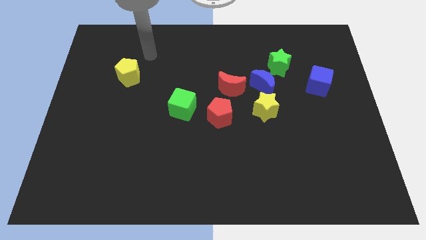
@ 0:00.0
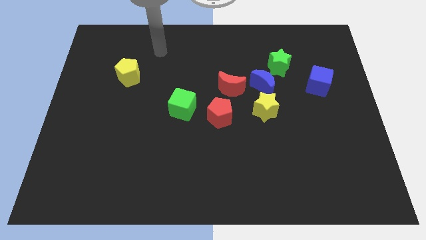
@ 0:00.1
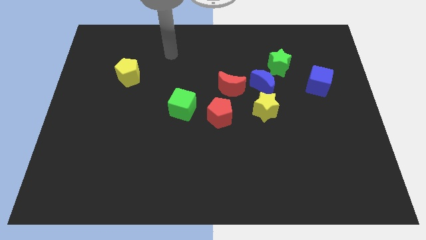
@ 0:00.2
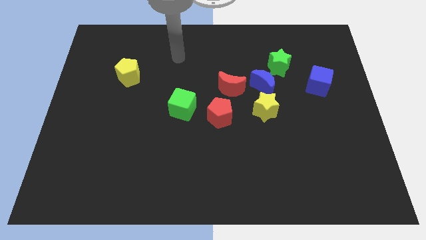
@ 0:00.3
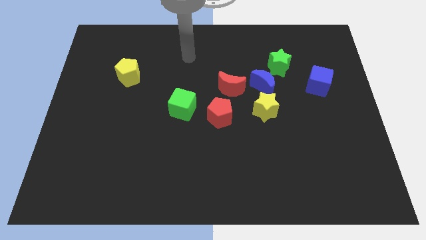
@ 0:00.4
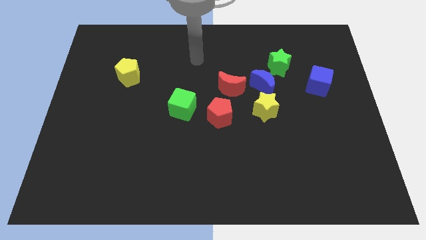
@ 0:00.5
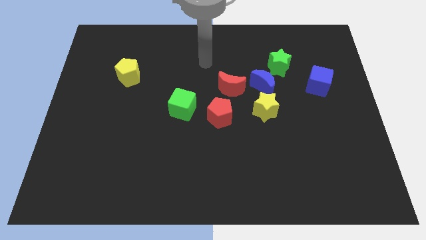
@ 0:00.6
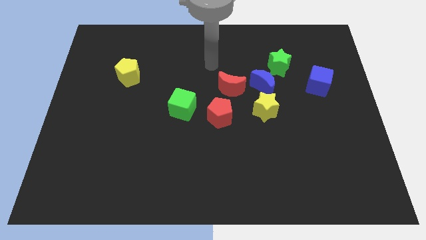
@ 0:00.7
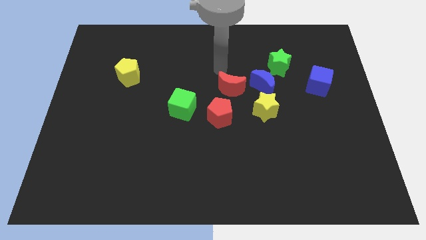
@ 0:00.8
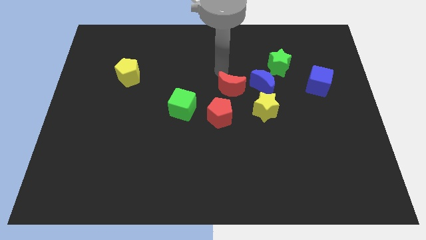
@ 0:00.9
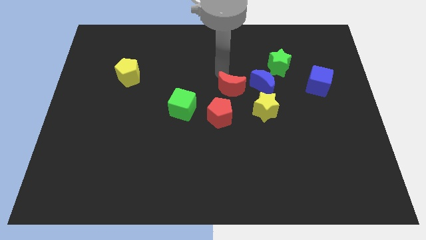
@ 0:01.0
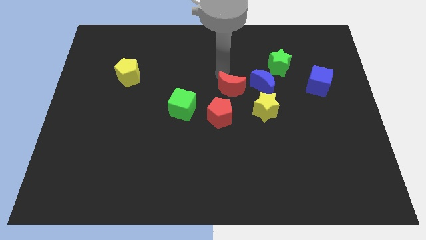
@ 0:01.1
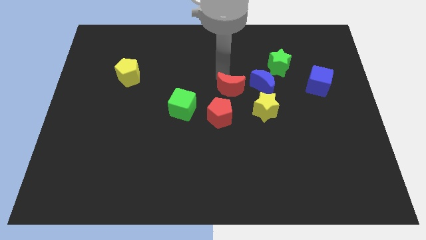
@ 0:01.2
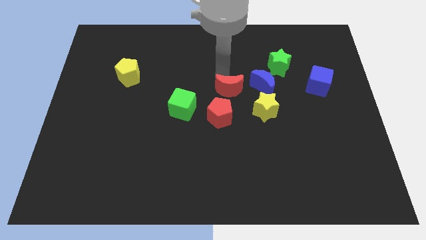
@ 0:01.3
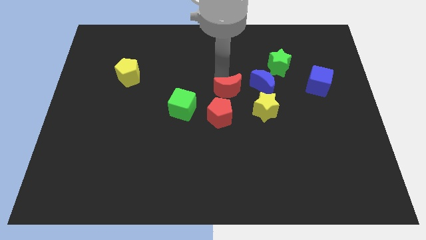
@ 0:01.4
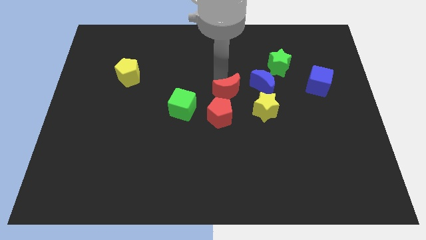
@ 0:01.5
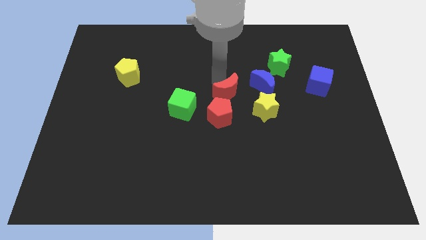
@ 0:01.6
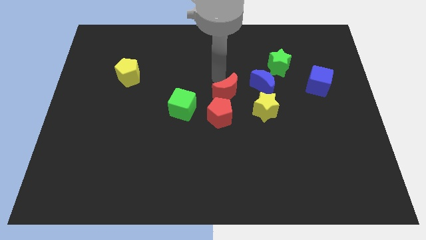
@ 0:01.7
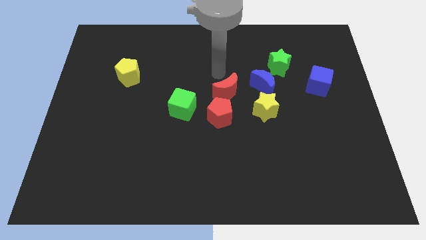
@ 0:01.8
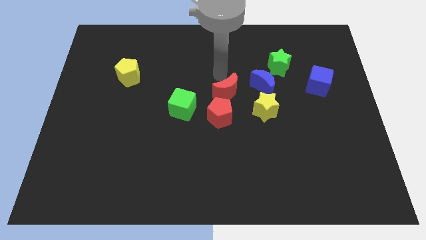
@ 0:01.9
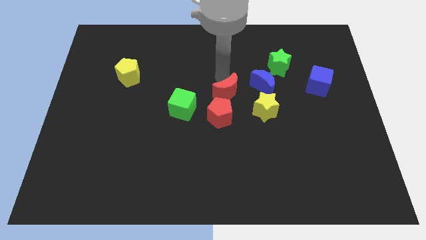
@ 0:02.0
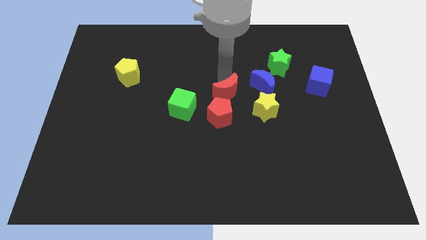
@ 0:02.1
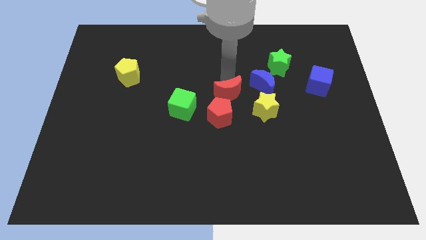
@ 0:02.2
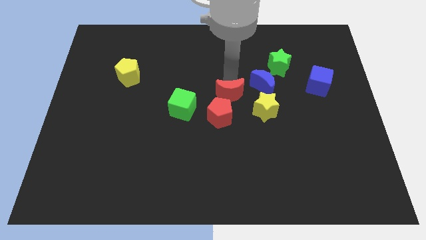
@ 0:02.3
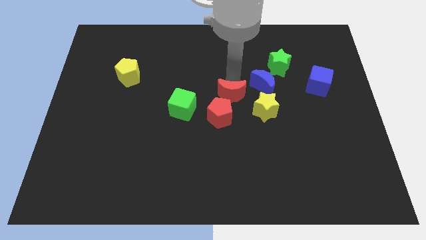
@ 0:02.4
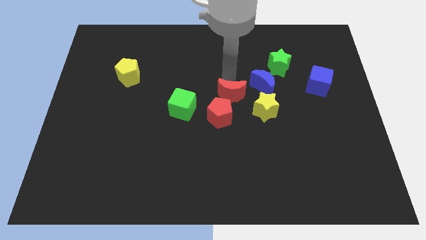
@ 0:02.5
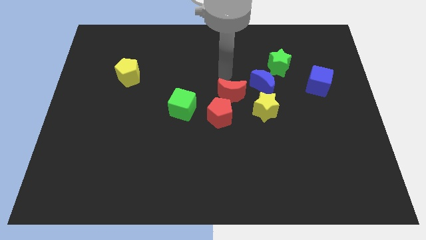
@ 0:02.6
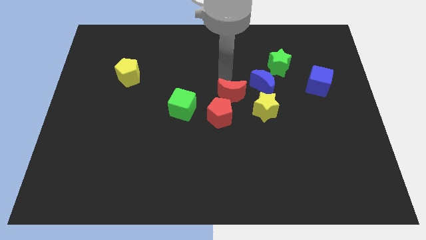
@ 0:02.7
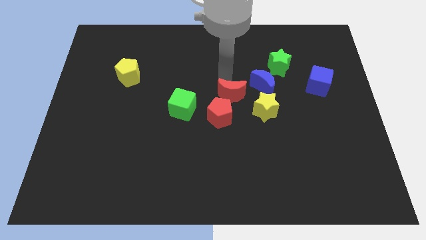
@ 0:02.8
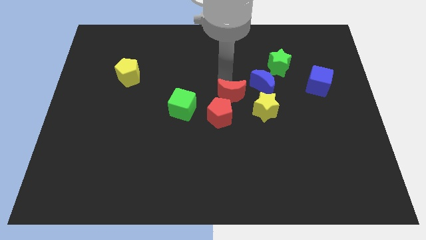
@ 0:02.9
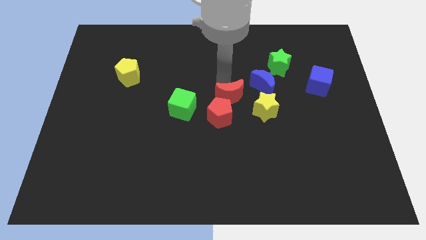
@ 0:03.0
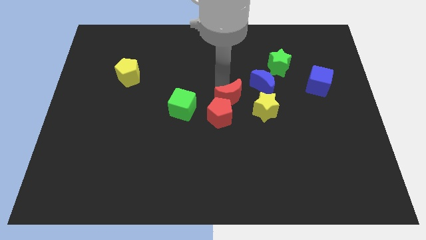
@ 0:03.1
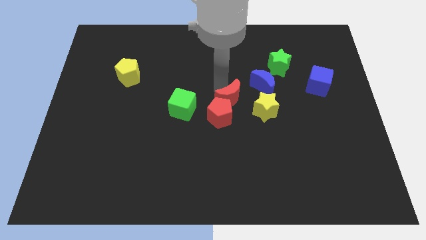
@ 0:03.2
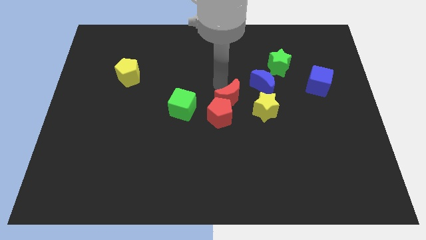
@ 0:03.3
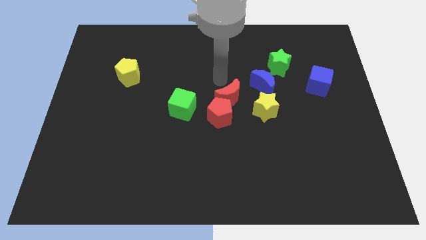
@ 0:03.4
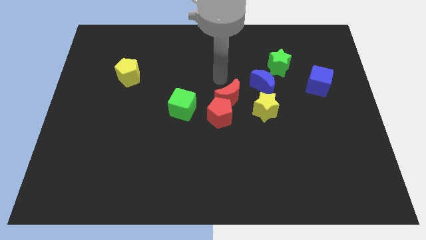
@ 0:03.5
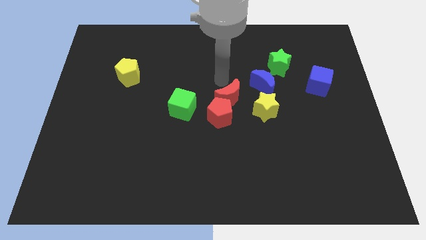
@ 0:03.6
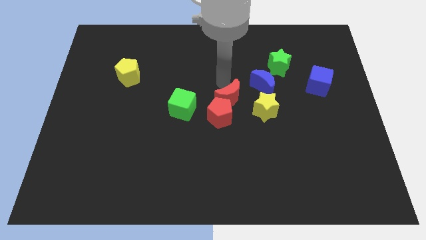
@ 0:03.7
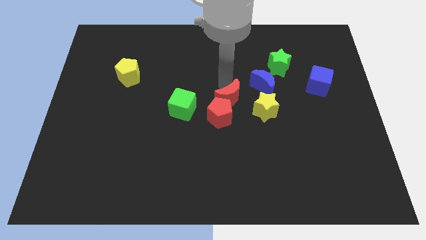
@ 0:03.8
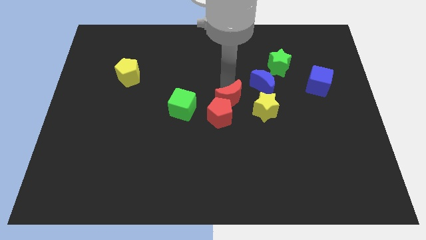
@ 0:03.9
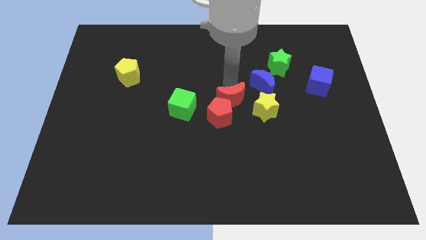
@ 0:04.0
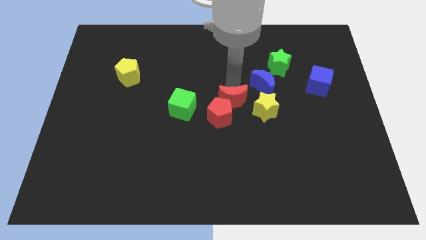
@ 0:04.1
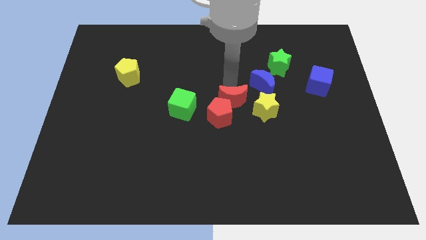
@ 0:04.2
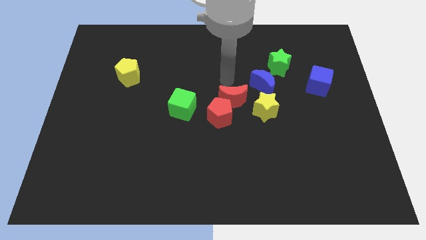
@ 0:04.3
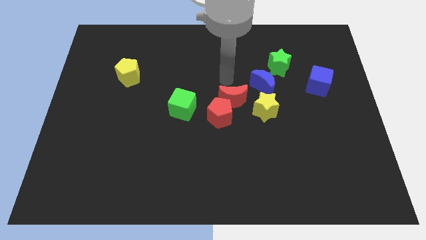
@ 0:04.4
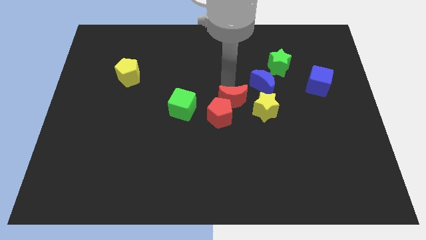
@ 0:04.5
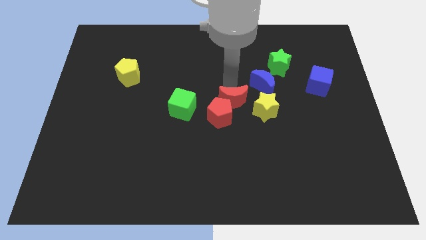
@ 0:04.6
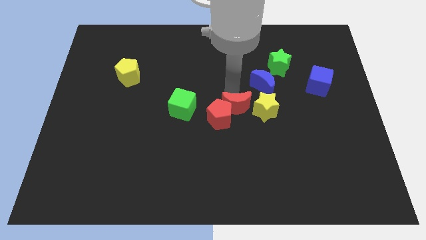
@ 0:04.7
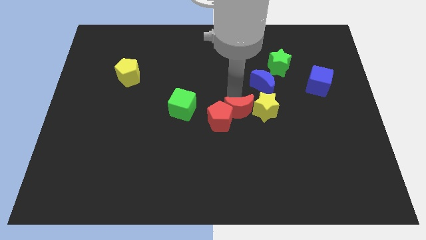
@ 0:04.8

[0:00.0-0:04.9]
slide the red moon a little bit down

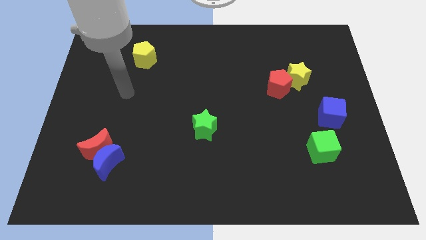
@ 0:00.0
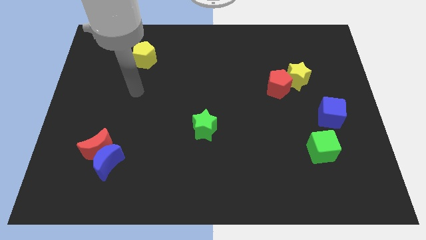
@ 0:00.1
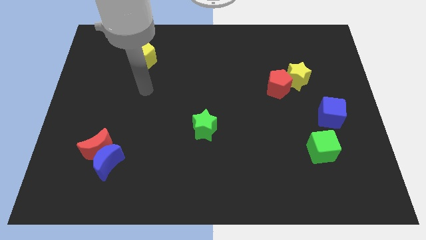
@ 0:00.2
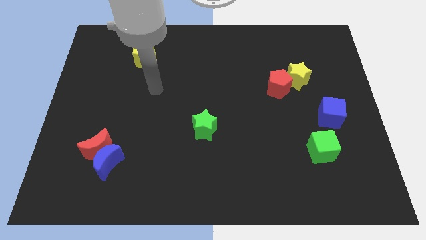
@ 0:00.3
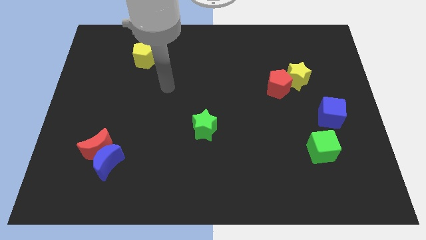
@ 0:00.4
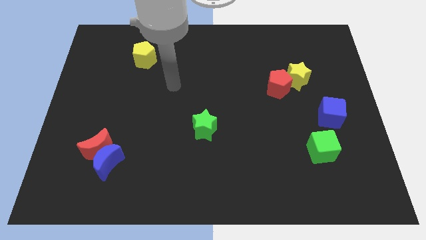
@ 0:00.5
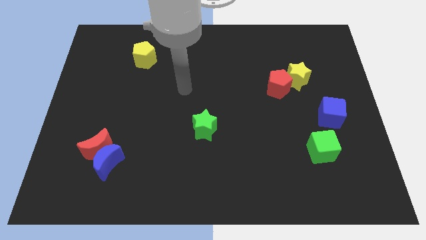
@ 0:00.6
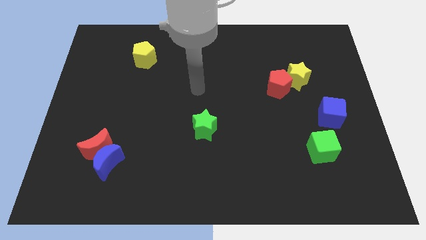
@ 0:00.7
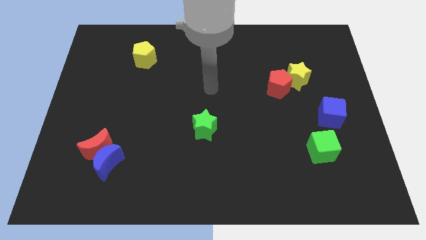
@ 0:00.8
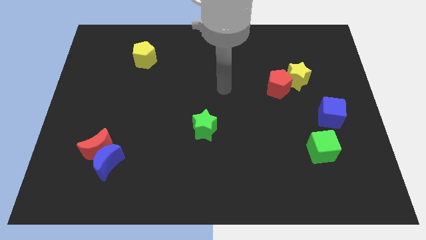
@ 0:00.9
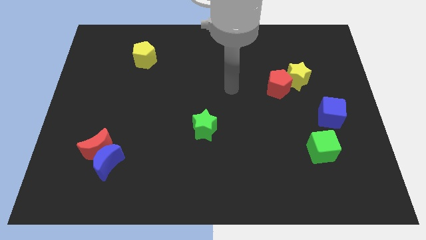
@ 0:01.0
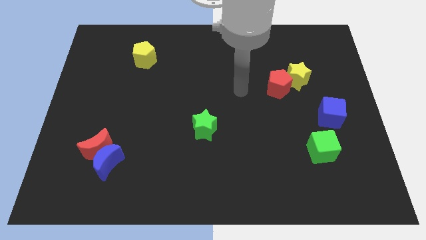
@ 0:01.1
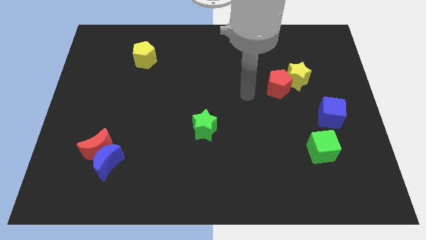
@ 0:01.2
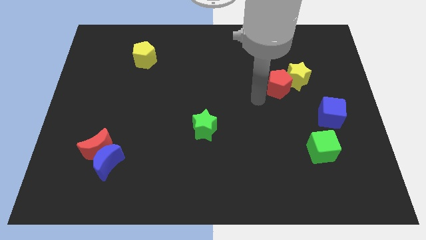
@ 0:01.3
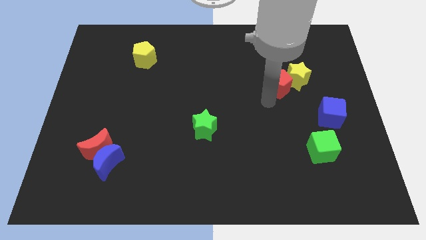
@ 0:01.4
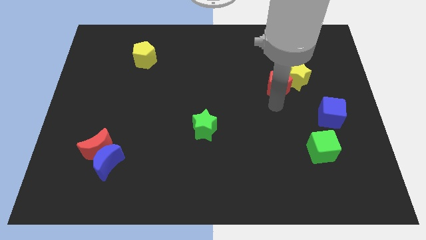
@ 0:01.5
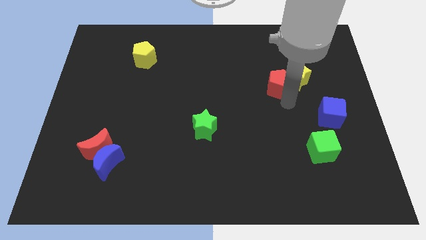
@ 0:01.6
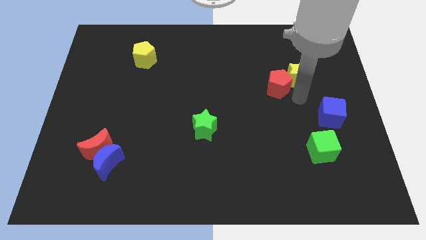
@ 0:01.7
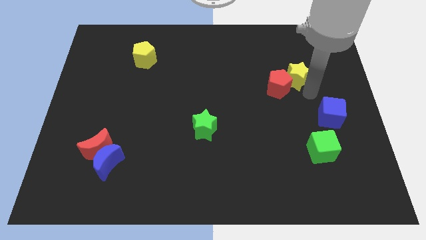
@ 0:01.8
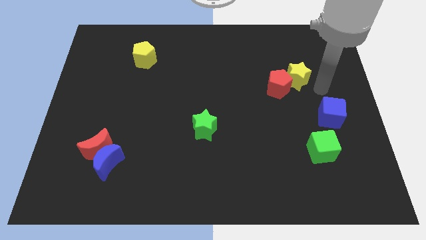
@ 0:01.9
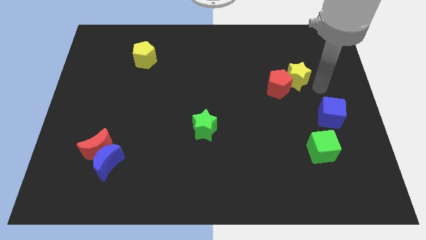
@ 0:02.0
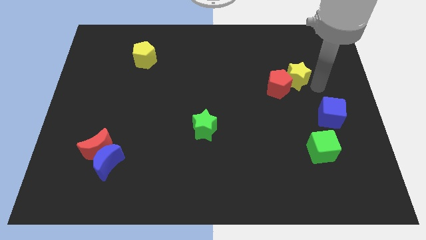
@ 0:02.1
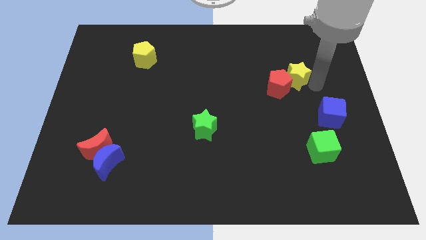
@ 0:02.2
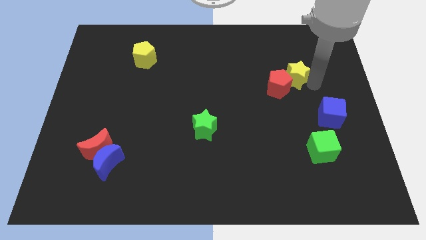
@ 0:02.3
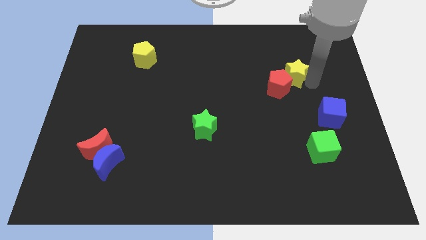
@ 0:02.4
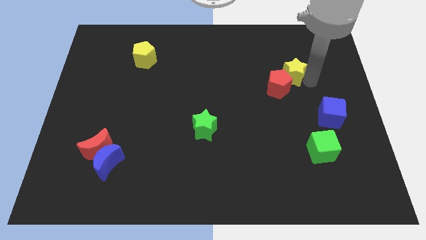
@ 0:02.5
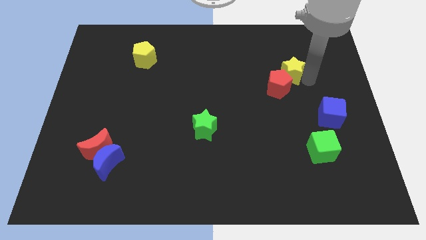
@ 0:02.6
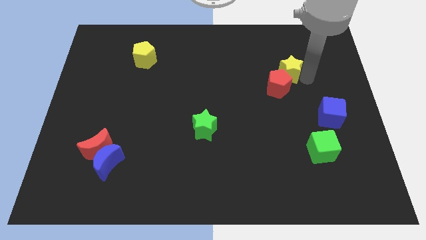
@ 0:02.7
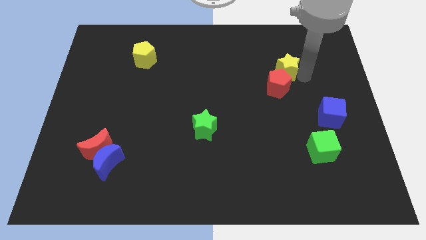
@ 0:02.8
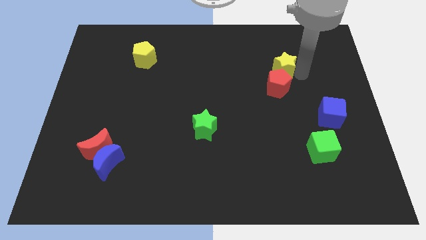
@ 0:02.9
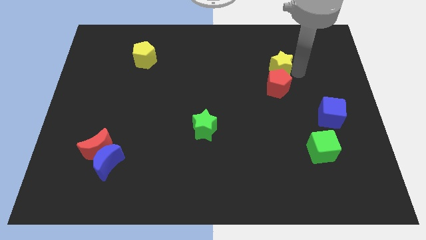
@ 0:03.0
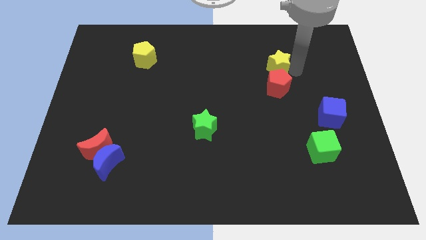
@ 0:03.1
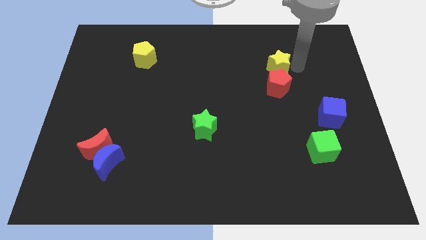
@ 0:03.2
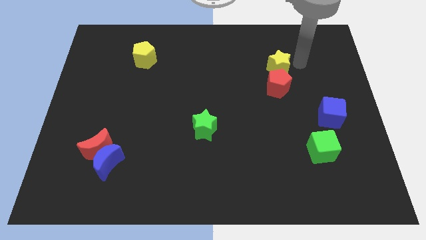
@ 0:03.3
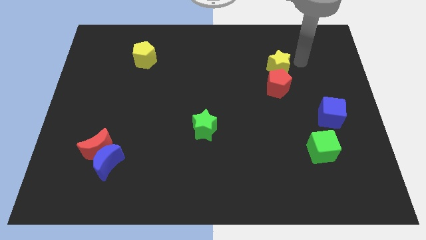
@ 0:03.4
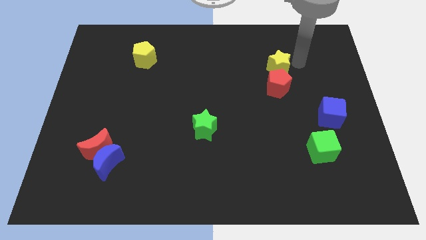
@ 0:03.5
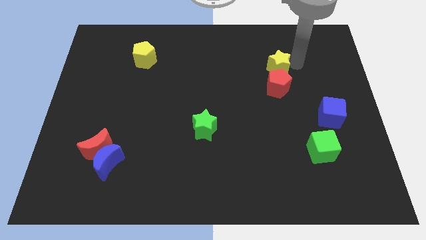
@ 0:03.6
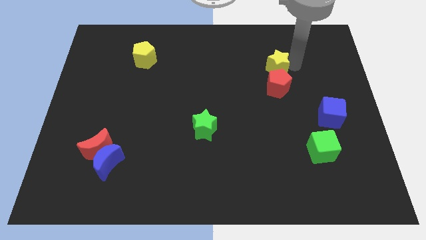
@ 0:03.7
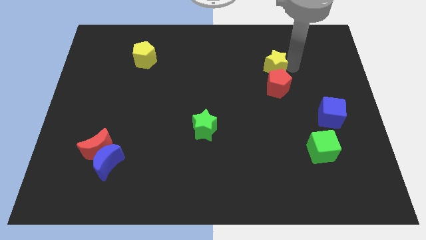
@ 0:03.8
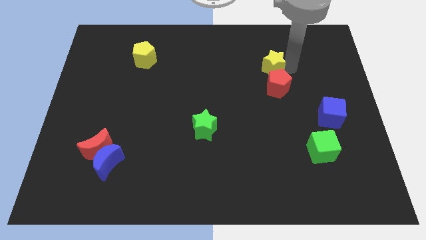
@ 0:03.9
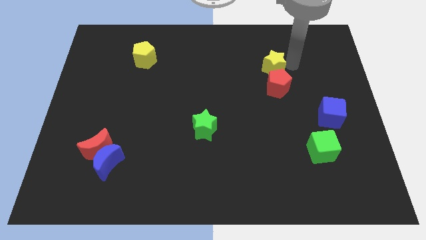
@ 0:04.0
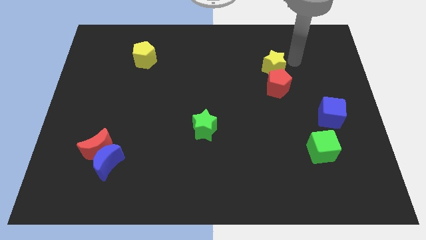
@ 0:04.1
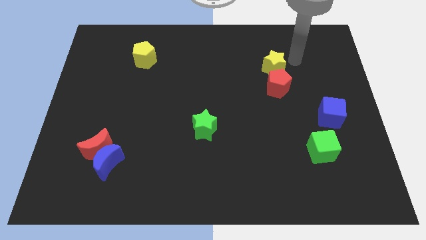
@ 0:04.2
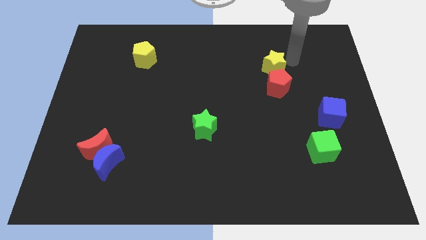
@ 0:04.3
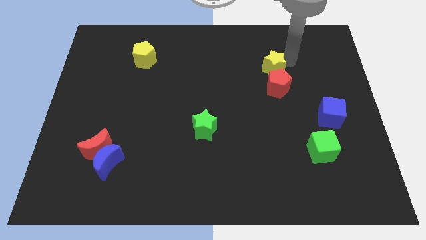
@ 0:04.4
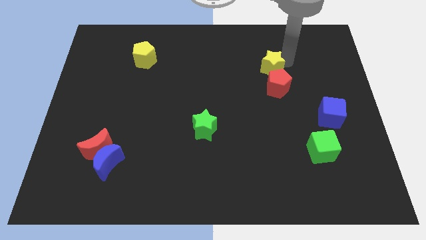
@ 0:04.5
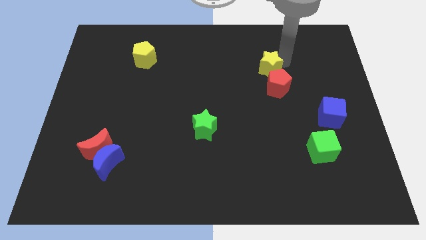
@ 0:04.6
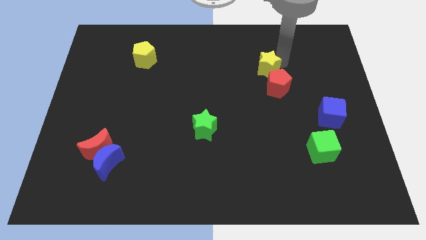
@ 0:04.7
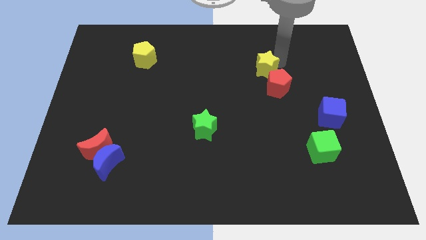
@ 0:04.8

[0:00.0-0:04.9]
slide the yellow star to the left a bit
